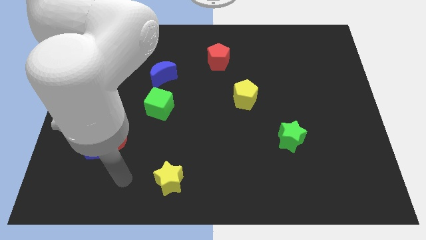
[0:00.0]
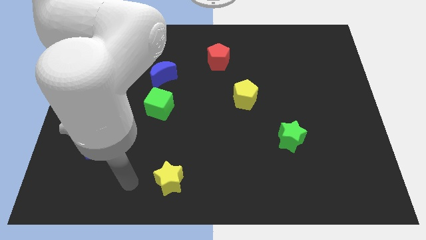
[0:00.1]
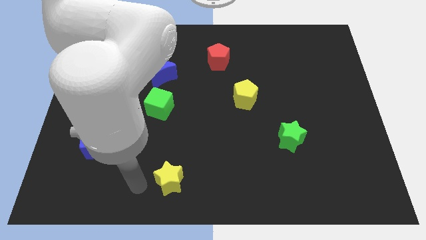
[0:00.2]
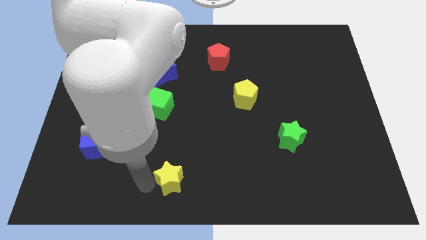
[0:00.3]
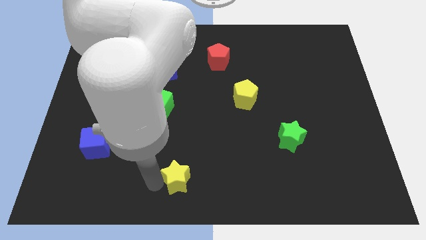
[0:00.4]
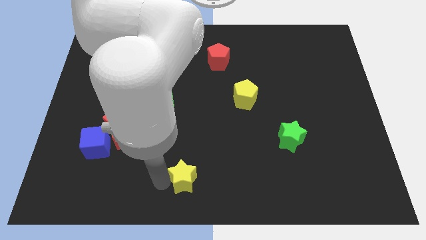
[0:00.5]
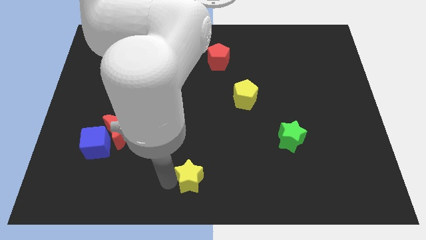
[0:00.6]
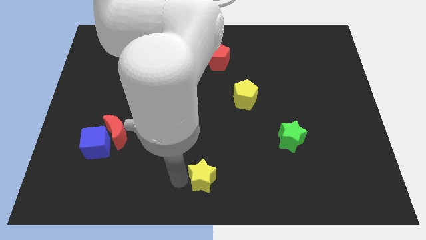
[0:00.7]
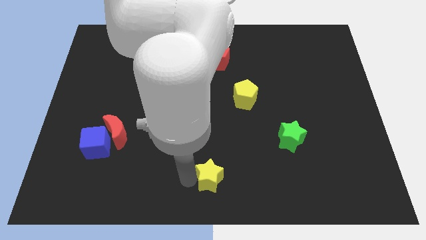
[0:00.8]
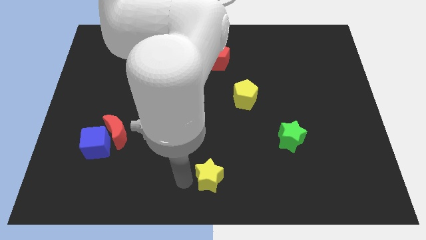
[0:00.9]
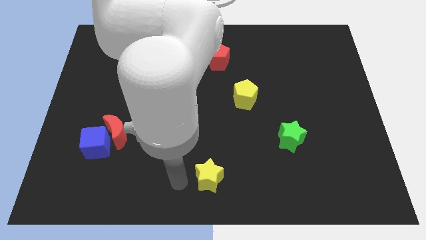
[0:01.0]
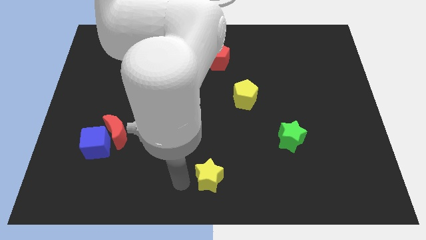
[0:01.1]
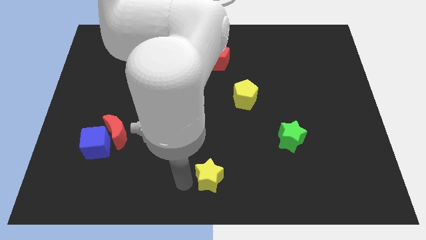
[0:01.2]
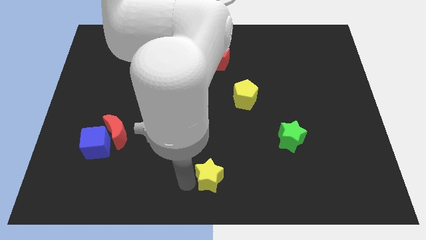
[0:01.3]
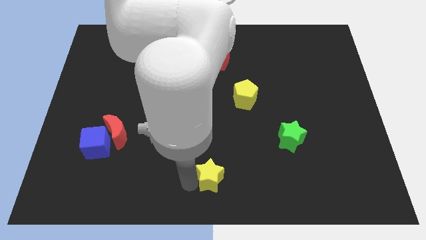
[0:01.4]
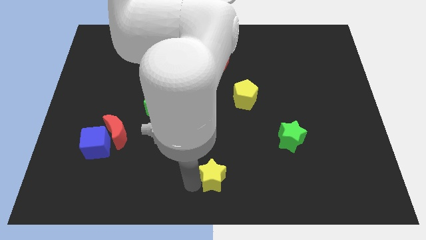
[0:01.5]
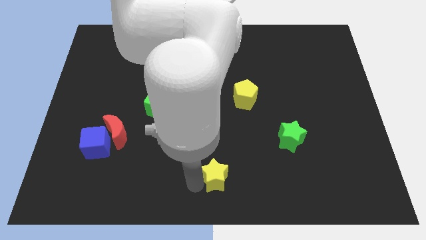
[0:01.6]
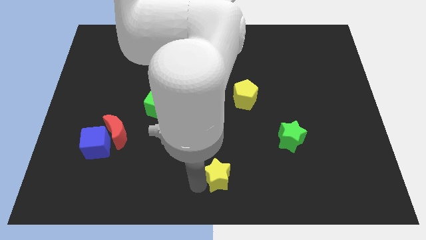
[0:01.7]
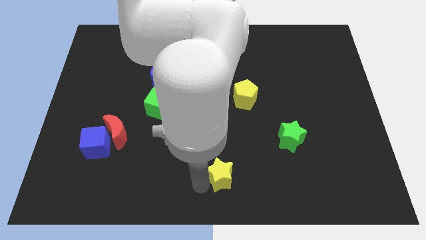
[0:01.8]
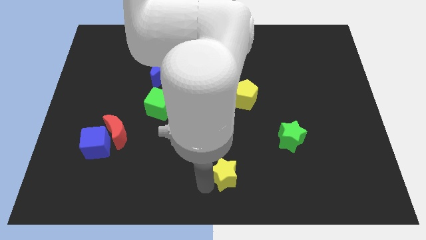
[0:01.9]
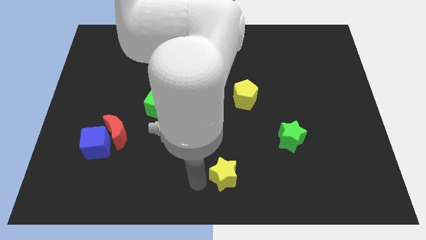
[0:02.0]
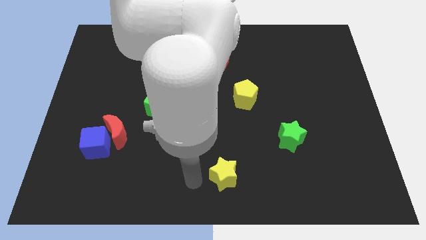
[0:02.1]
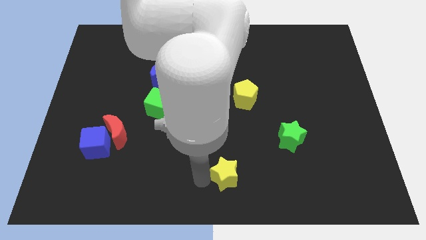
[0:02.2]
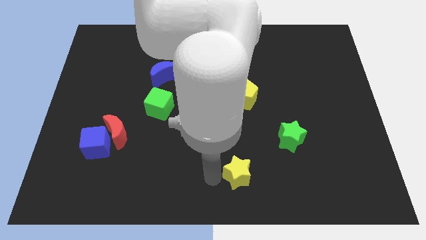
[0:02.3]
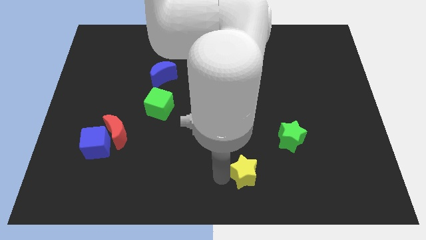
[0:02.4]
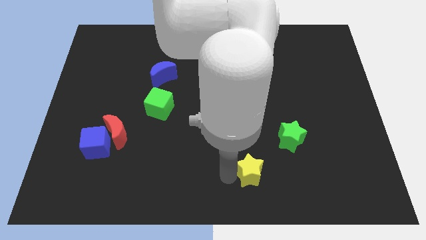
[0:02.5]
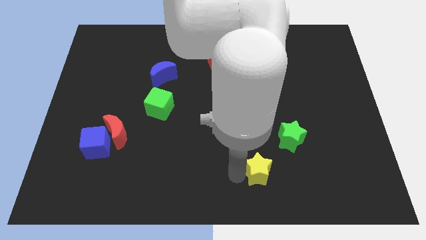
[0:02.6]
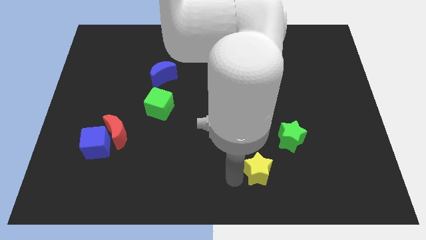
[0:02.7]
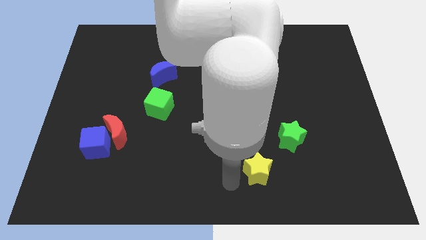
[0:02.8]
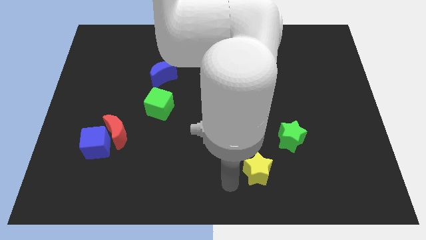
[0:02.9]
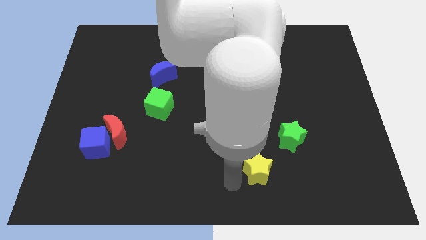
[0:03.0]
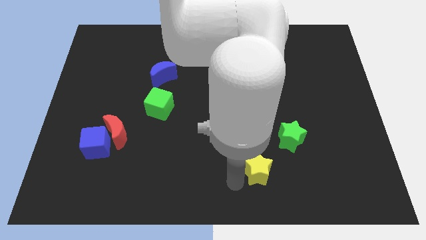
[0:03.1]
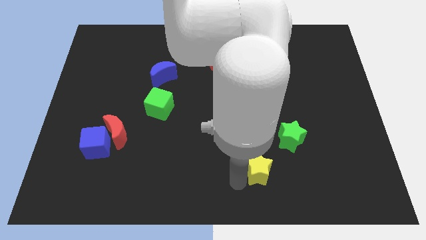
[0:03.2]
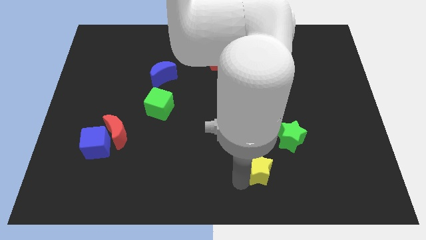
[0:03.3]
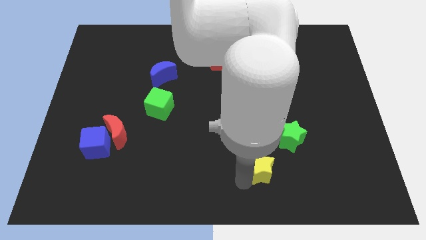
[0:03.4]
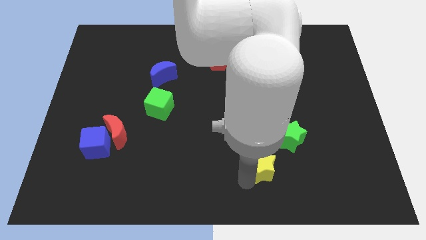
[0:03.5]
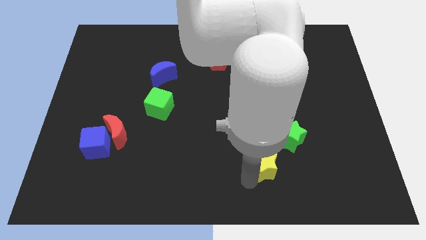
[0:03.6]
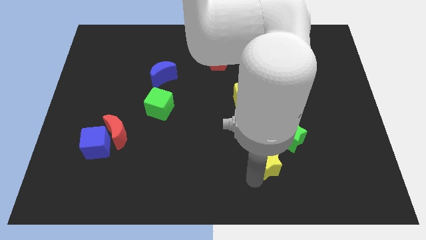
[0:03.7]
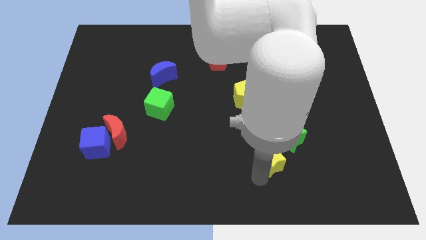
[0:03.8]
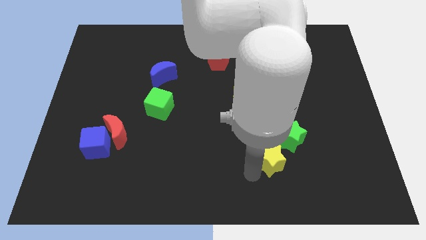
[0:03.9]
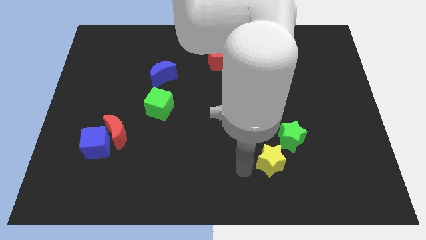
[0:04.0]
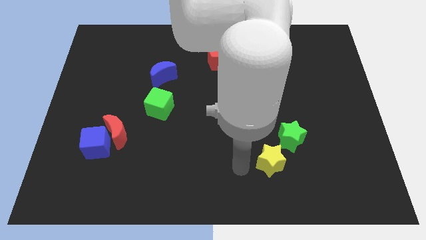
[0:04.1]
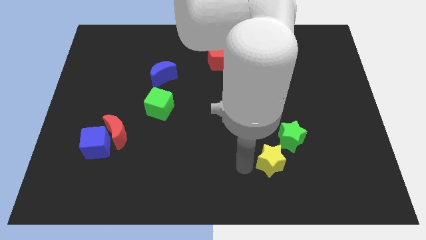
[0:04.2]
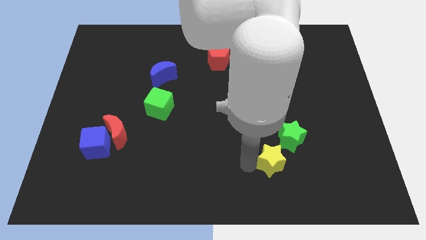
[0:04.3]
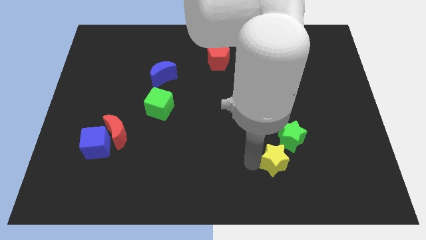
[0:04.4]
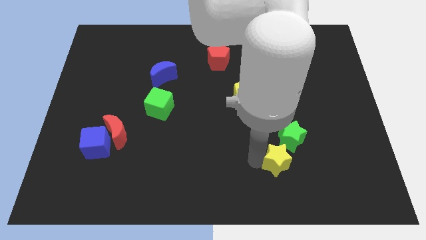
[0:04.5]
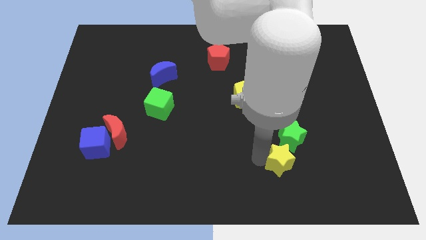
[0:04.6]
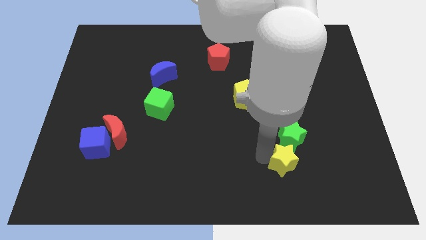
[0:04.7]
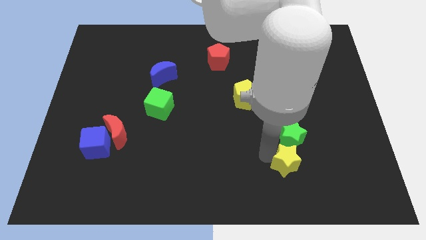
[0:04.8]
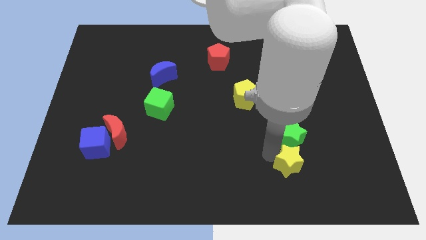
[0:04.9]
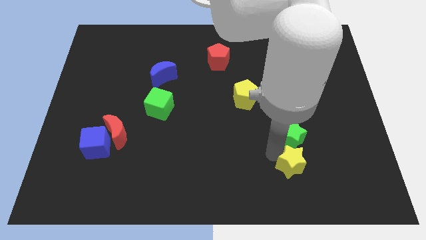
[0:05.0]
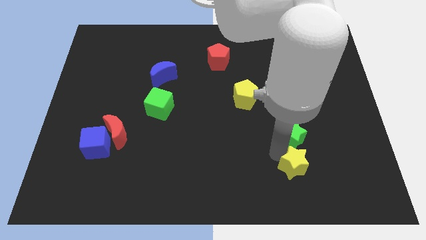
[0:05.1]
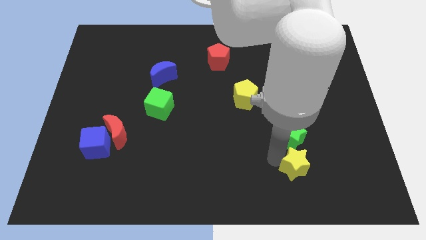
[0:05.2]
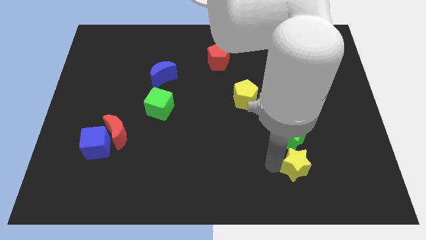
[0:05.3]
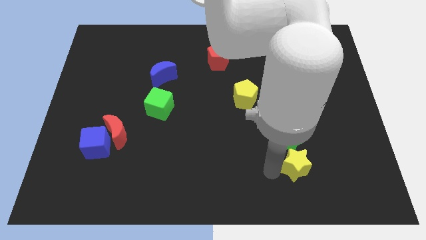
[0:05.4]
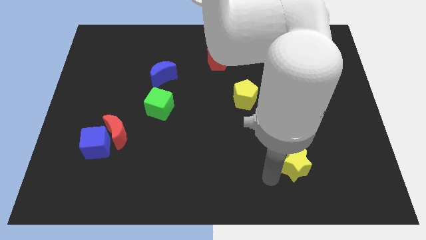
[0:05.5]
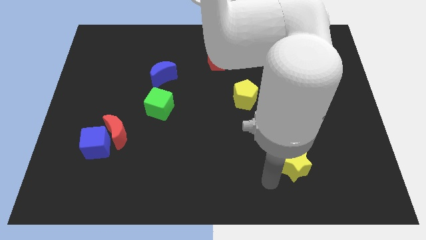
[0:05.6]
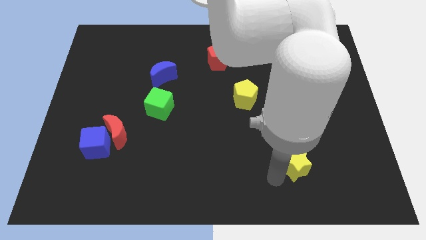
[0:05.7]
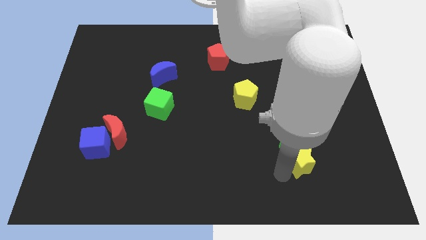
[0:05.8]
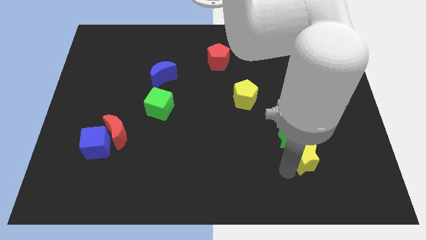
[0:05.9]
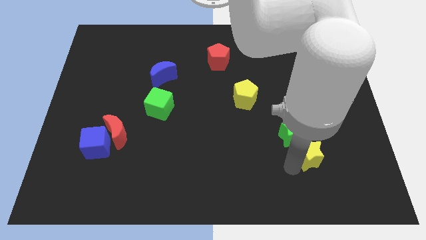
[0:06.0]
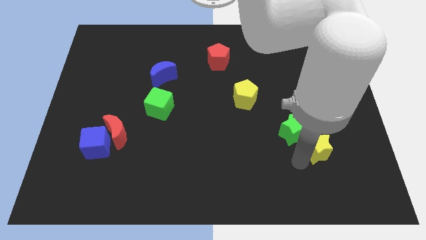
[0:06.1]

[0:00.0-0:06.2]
move the yellow star to the right of the green star
